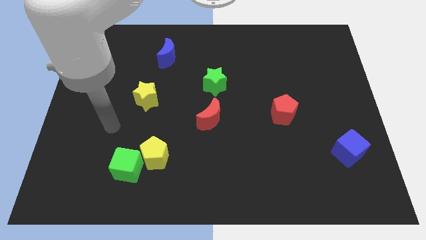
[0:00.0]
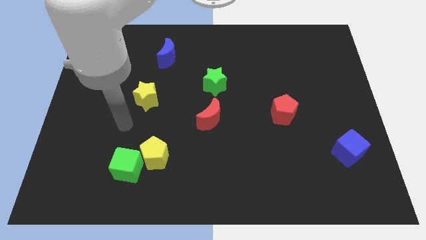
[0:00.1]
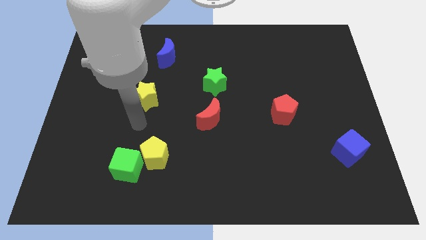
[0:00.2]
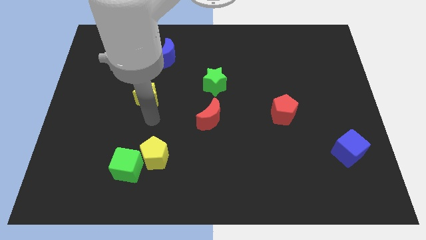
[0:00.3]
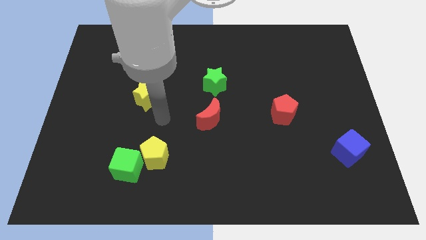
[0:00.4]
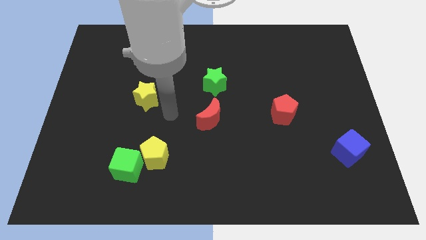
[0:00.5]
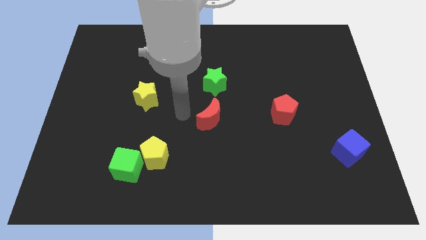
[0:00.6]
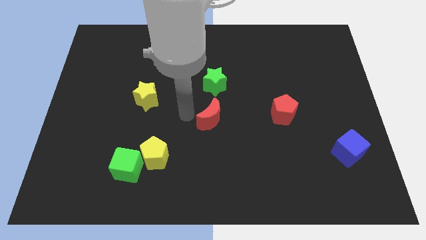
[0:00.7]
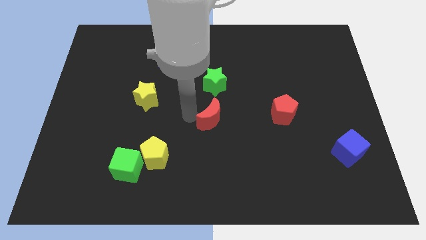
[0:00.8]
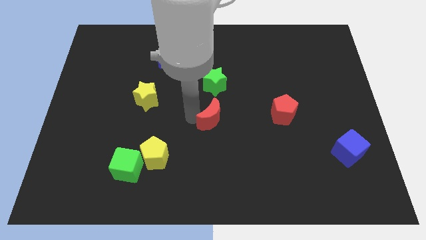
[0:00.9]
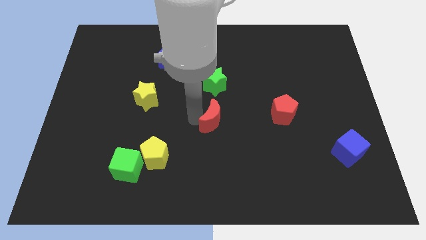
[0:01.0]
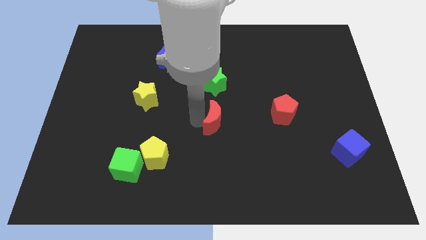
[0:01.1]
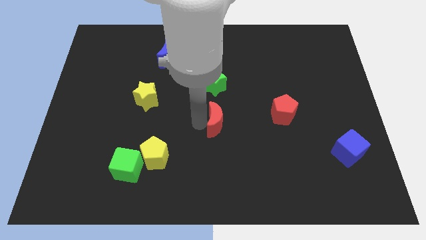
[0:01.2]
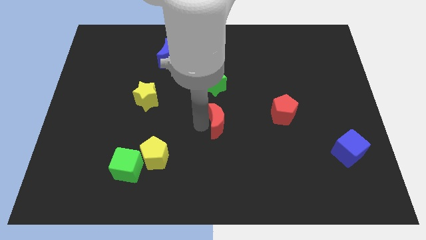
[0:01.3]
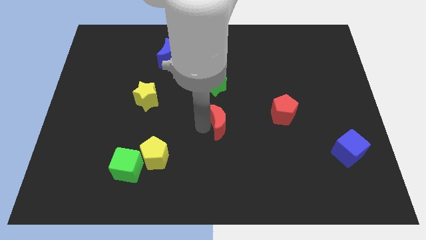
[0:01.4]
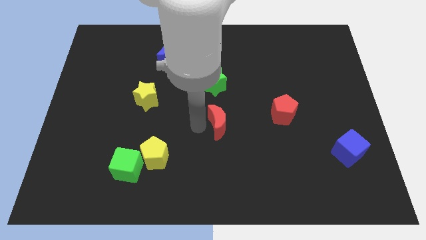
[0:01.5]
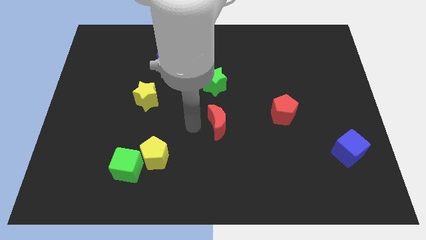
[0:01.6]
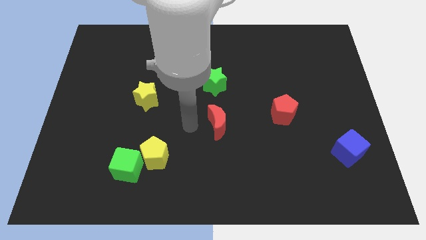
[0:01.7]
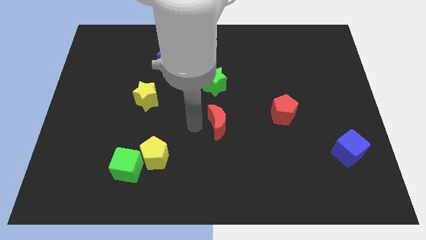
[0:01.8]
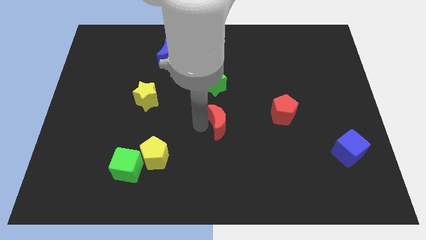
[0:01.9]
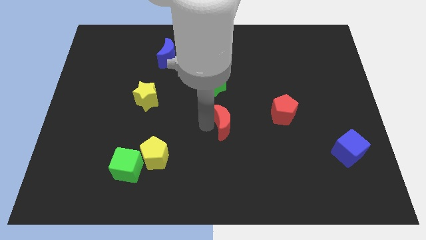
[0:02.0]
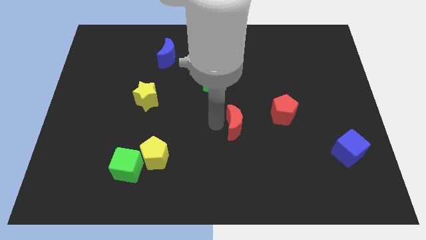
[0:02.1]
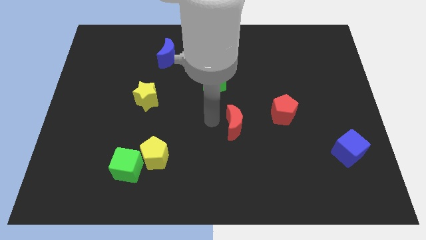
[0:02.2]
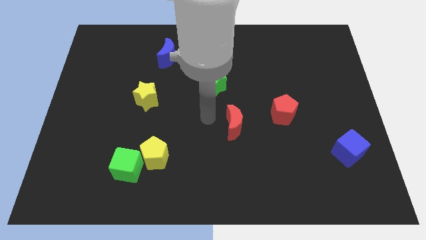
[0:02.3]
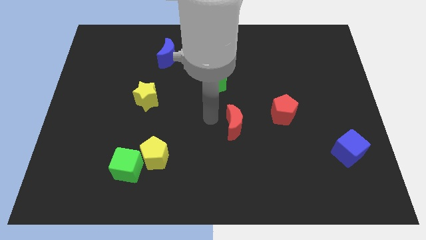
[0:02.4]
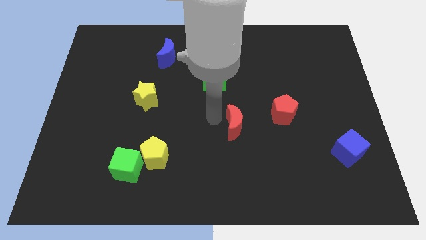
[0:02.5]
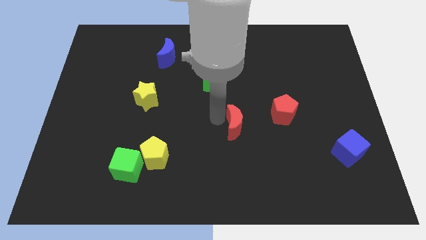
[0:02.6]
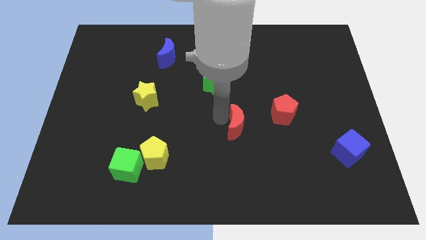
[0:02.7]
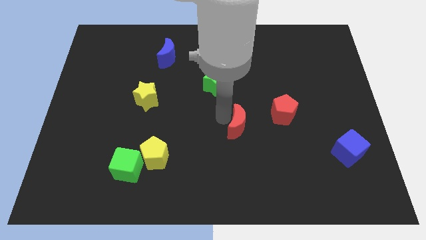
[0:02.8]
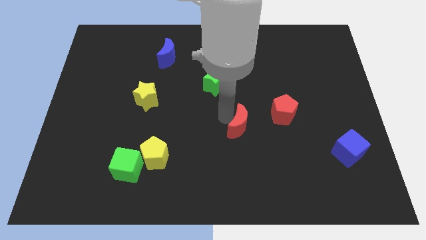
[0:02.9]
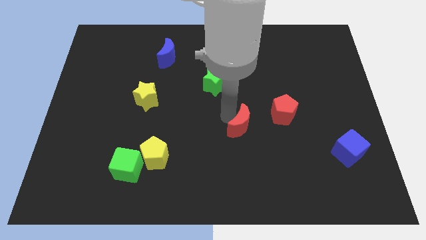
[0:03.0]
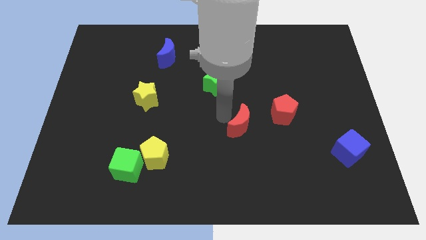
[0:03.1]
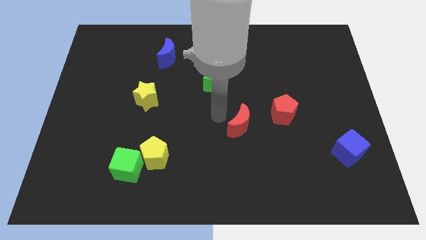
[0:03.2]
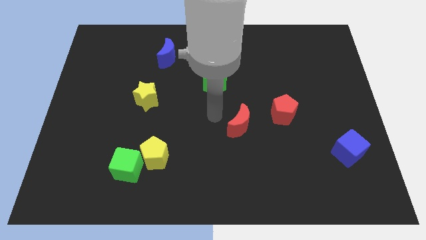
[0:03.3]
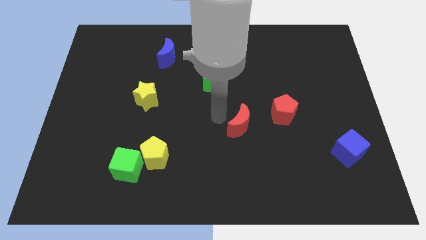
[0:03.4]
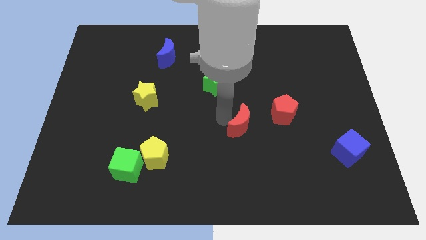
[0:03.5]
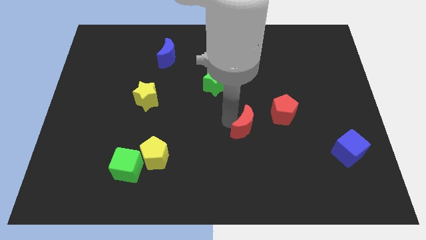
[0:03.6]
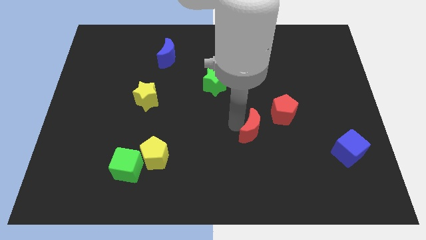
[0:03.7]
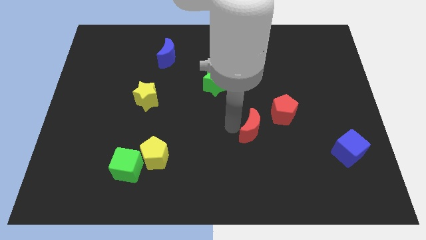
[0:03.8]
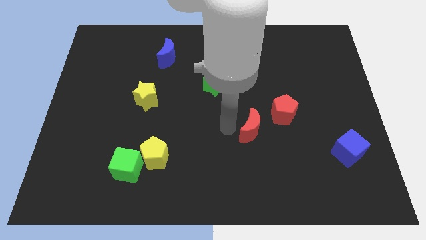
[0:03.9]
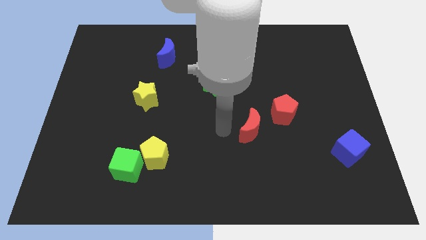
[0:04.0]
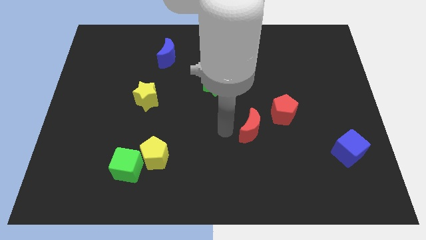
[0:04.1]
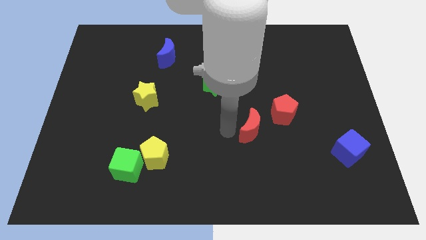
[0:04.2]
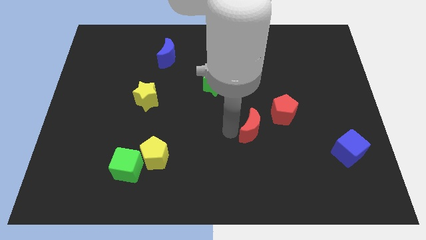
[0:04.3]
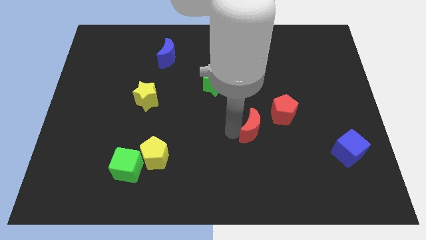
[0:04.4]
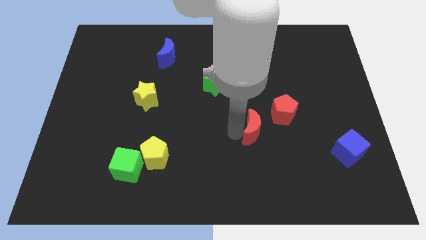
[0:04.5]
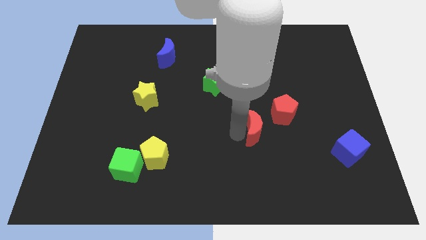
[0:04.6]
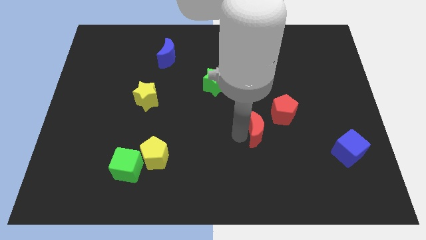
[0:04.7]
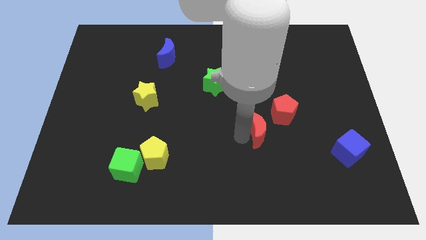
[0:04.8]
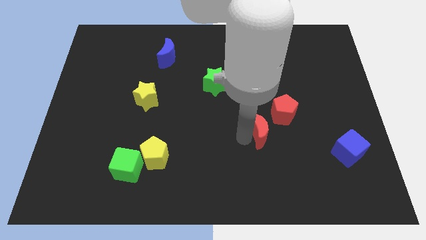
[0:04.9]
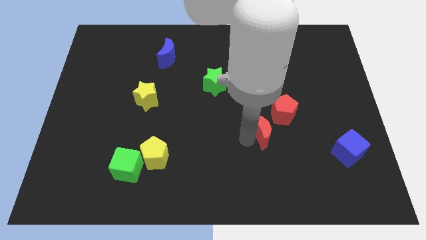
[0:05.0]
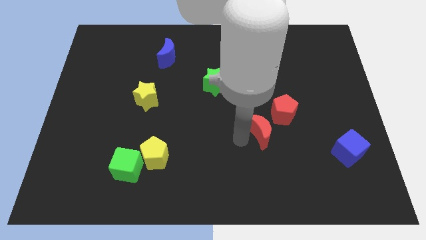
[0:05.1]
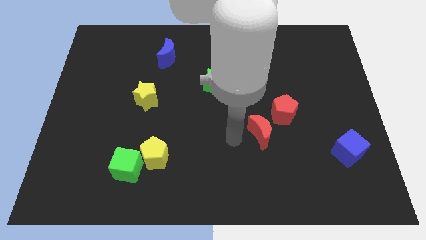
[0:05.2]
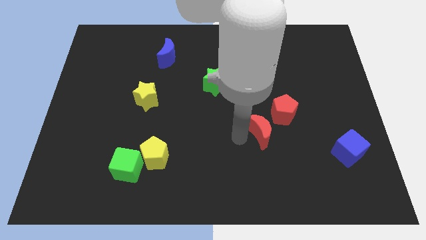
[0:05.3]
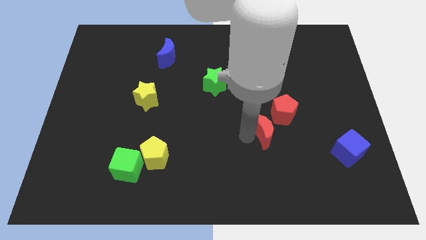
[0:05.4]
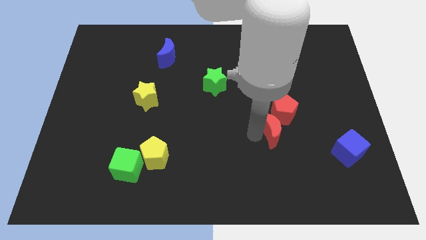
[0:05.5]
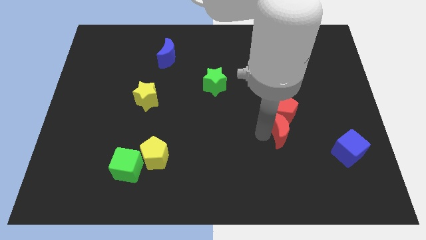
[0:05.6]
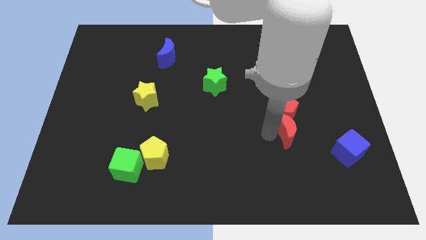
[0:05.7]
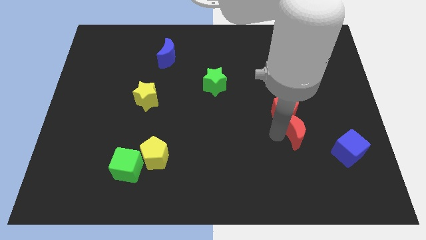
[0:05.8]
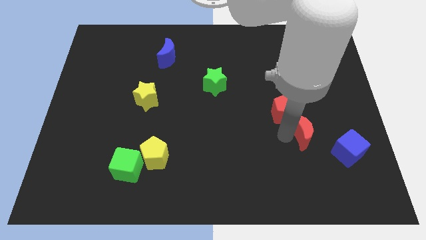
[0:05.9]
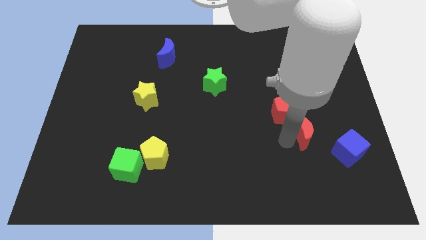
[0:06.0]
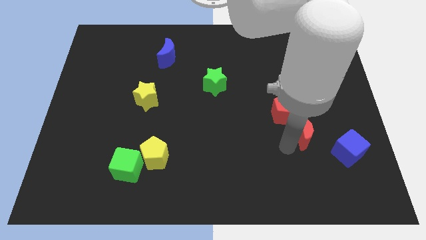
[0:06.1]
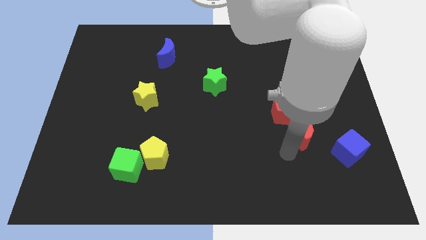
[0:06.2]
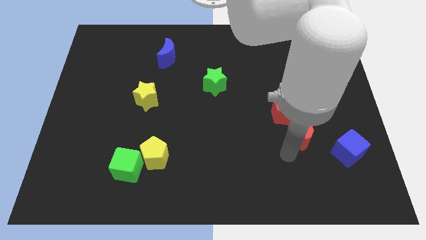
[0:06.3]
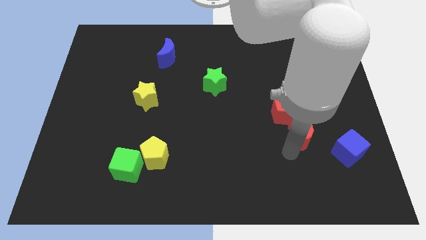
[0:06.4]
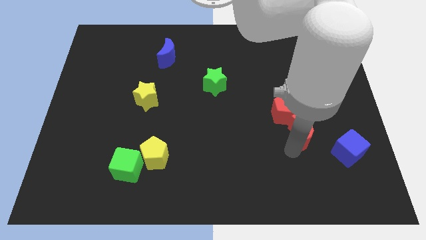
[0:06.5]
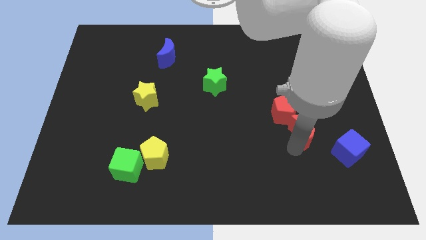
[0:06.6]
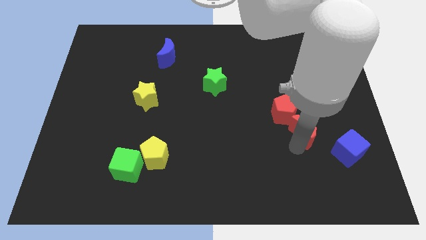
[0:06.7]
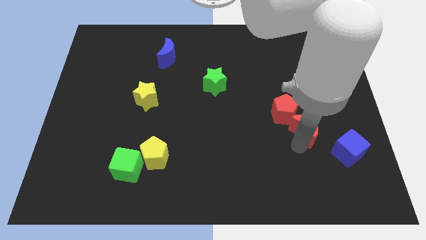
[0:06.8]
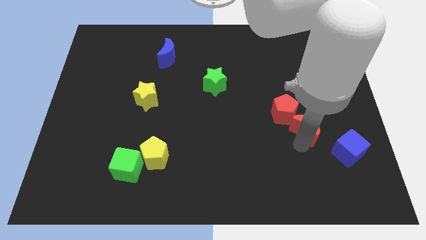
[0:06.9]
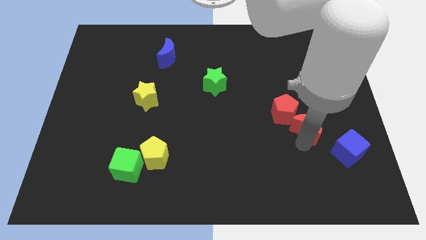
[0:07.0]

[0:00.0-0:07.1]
slide the red moon right of the red pentagon

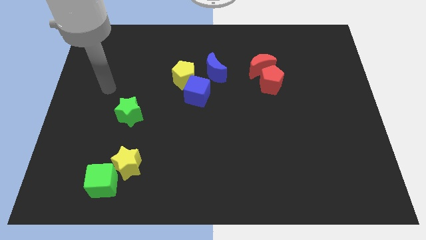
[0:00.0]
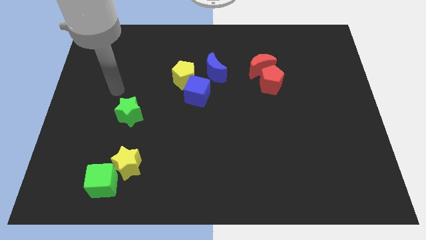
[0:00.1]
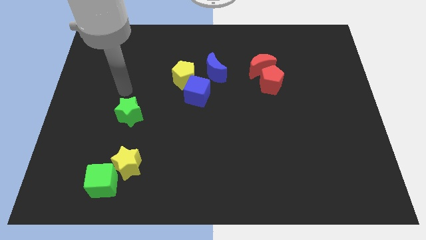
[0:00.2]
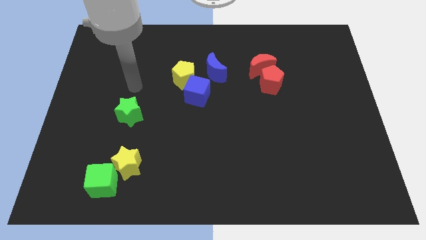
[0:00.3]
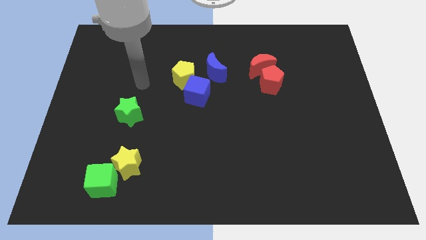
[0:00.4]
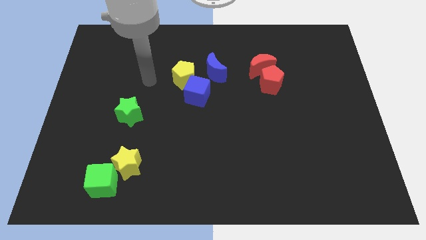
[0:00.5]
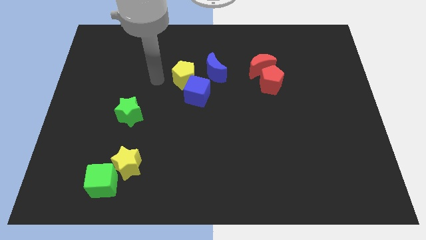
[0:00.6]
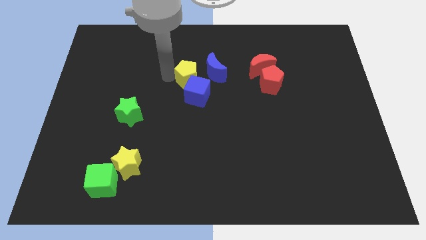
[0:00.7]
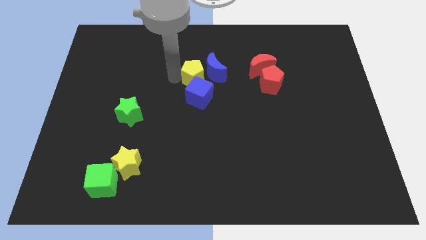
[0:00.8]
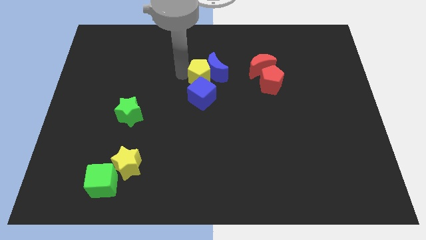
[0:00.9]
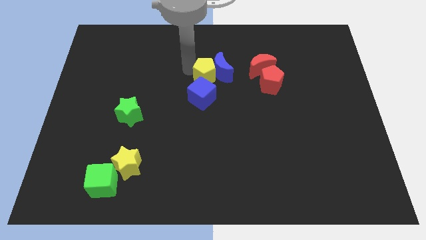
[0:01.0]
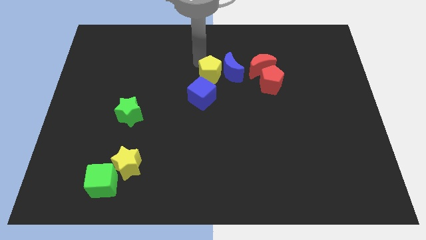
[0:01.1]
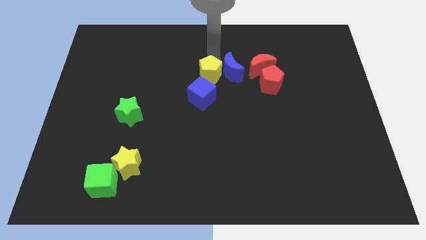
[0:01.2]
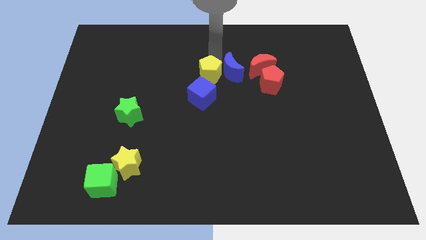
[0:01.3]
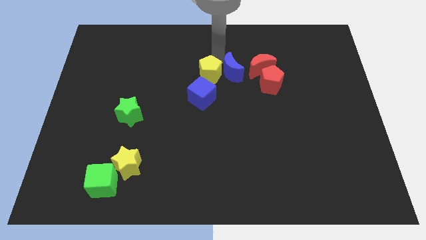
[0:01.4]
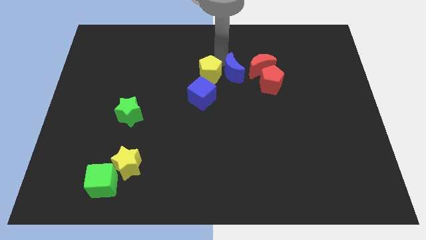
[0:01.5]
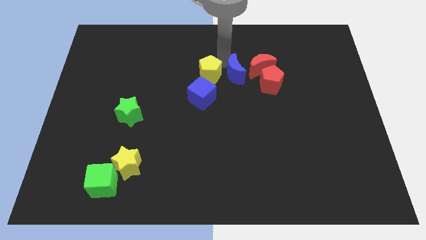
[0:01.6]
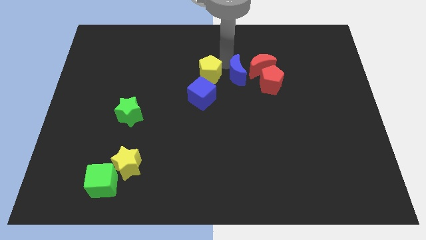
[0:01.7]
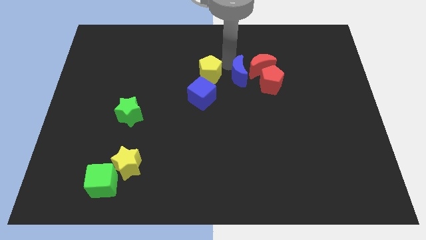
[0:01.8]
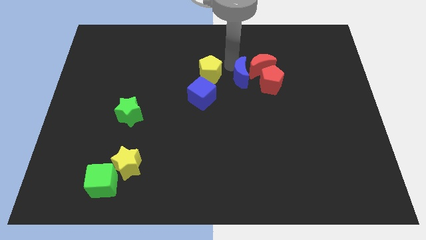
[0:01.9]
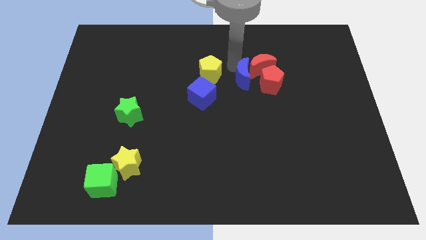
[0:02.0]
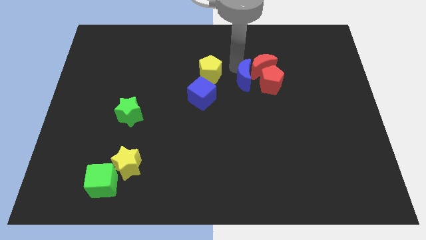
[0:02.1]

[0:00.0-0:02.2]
slide the blue moon below the red moon
